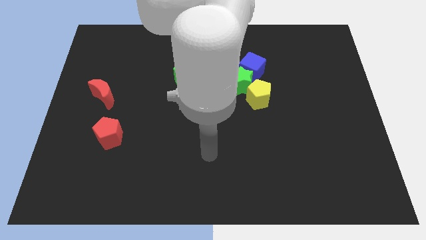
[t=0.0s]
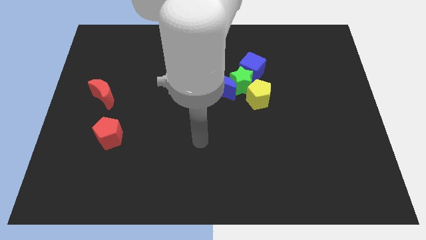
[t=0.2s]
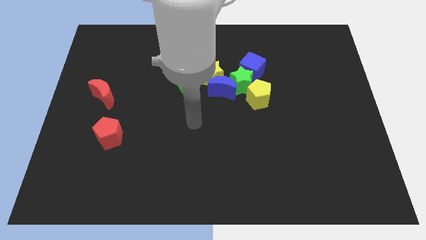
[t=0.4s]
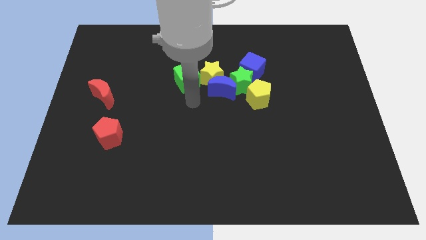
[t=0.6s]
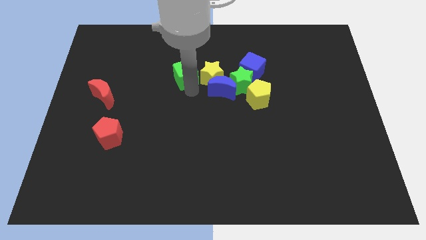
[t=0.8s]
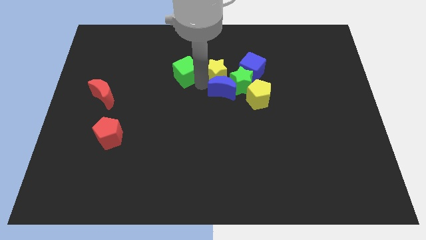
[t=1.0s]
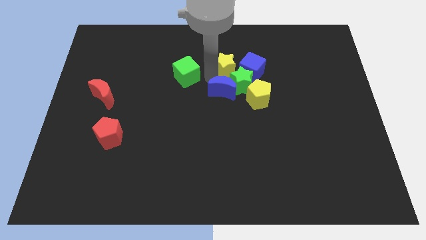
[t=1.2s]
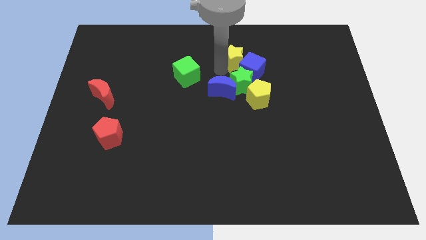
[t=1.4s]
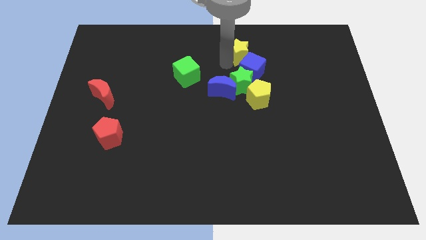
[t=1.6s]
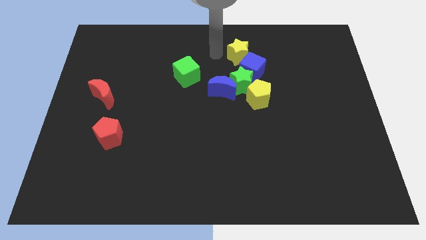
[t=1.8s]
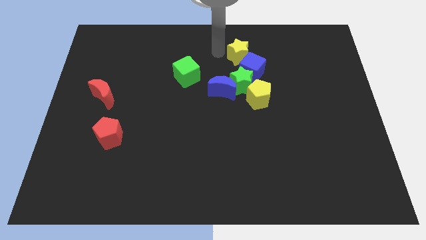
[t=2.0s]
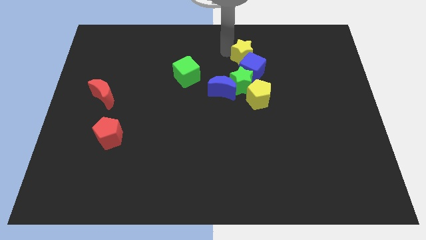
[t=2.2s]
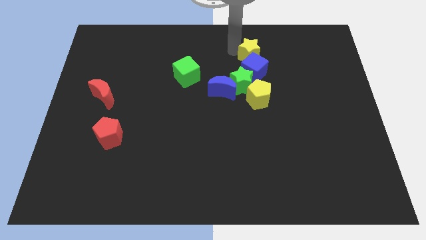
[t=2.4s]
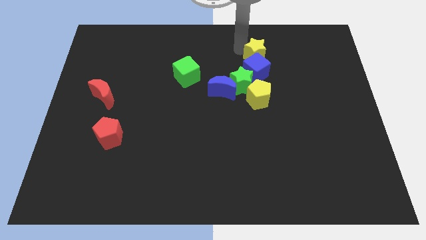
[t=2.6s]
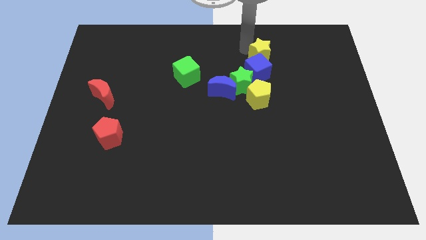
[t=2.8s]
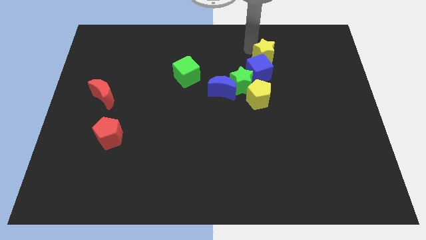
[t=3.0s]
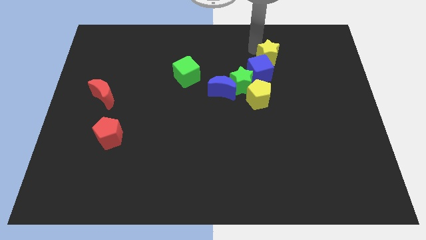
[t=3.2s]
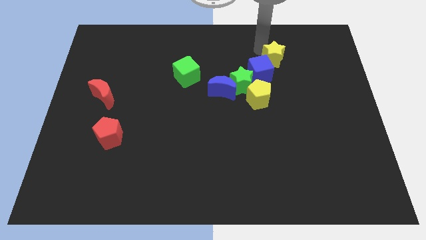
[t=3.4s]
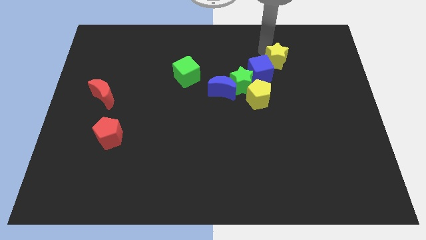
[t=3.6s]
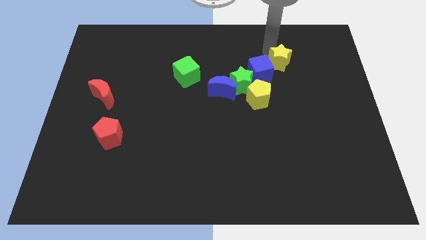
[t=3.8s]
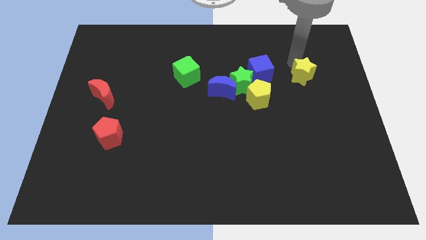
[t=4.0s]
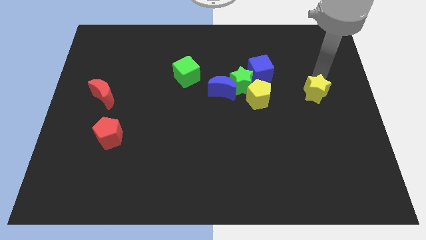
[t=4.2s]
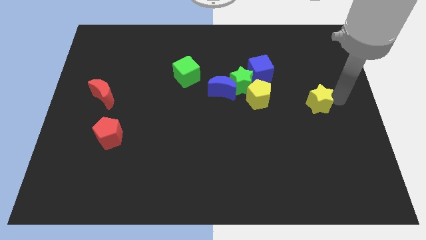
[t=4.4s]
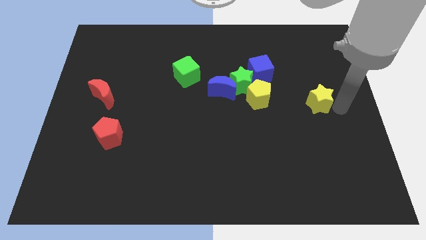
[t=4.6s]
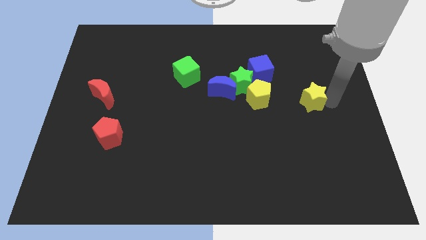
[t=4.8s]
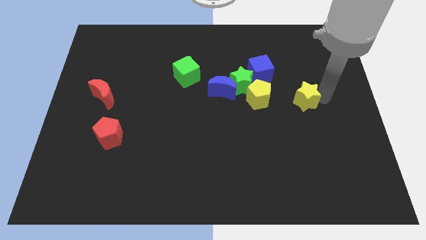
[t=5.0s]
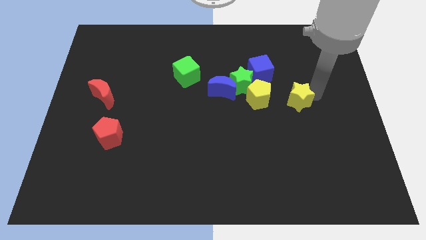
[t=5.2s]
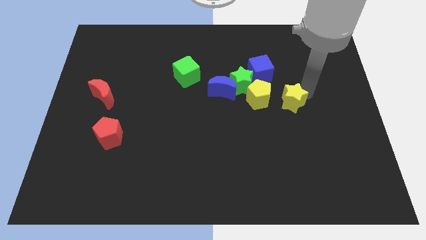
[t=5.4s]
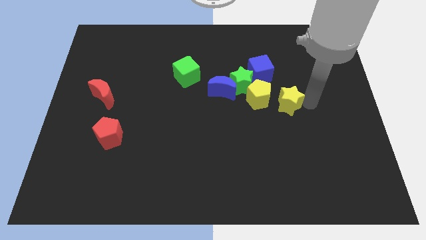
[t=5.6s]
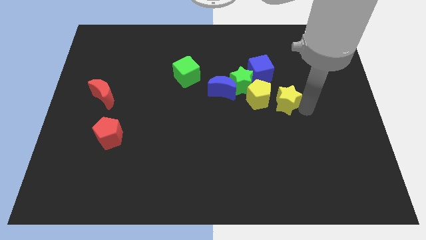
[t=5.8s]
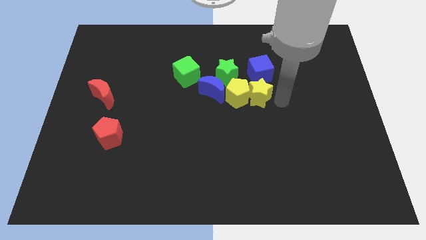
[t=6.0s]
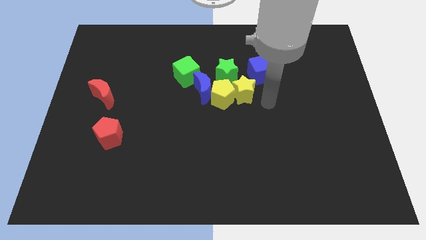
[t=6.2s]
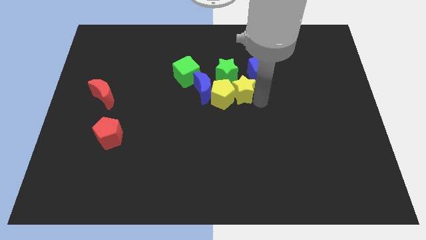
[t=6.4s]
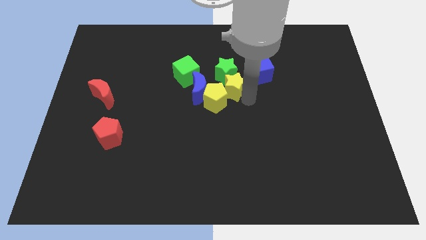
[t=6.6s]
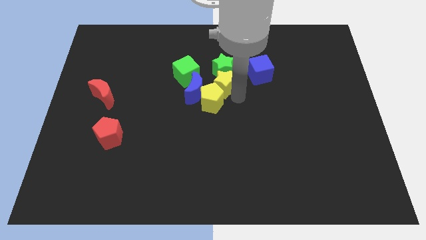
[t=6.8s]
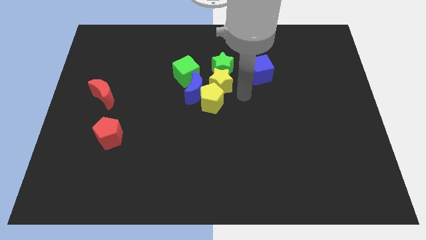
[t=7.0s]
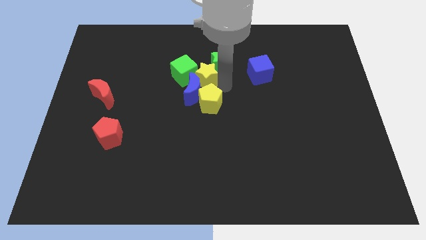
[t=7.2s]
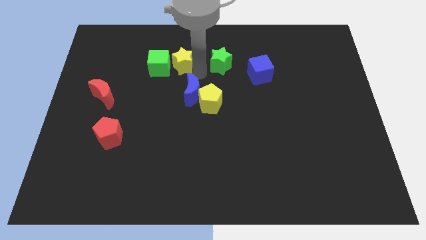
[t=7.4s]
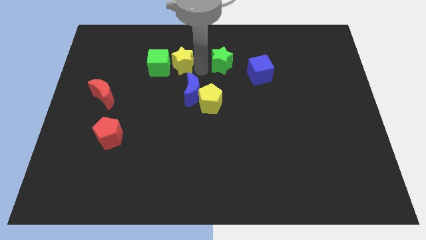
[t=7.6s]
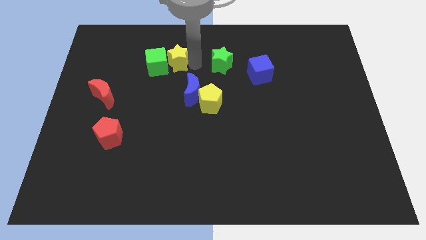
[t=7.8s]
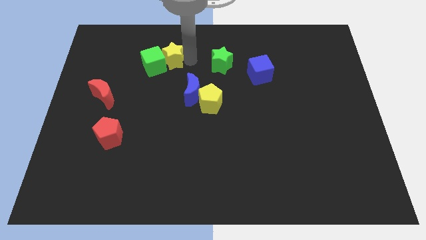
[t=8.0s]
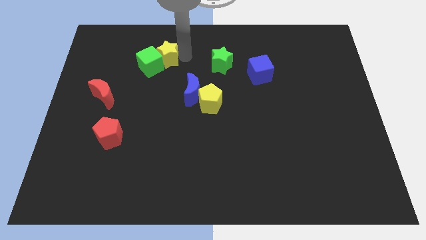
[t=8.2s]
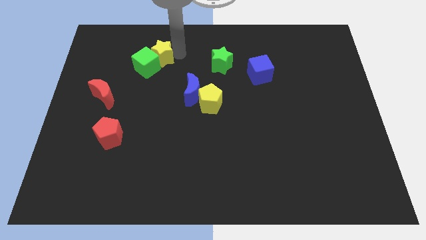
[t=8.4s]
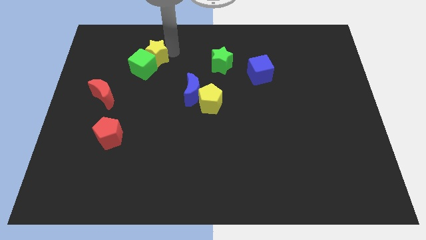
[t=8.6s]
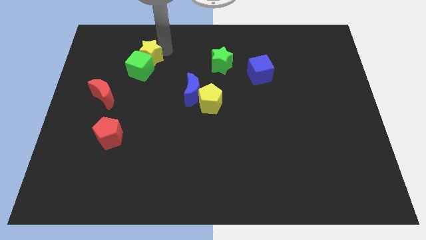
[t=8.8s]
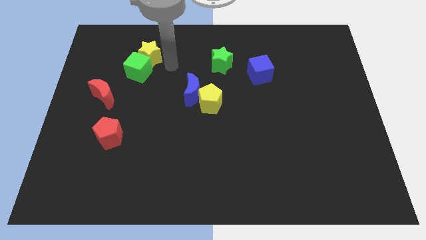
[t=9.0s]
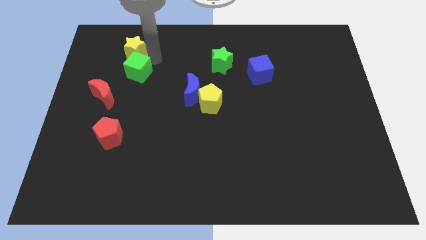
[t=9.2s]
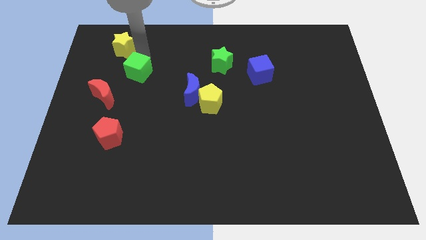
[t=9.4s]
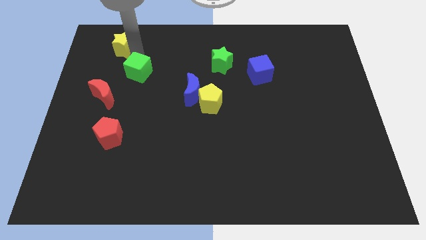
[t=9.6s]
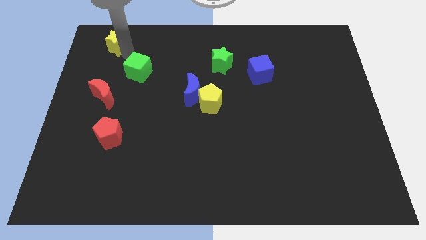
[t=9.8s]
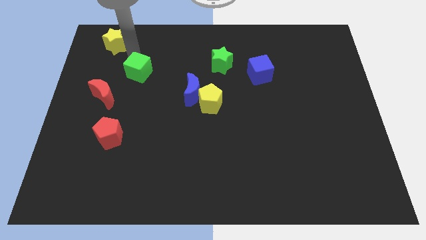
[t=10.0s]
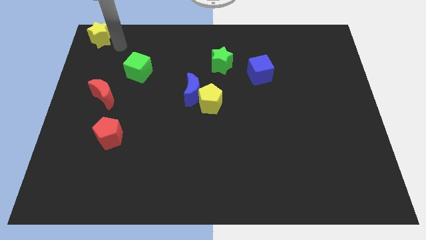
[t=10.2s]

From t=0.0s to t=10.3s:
slide the yellow star to the top left of the board
